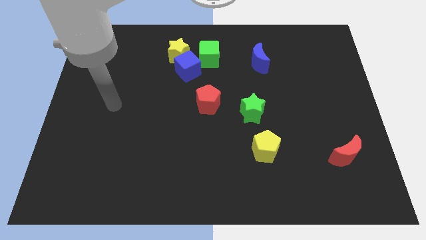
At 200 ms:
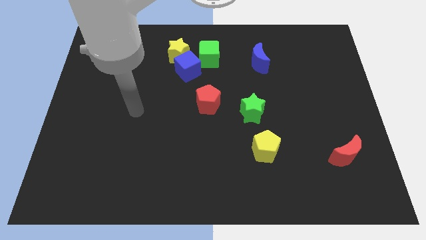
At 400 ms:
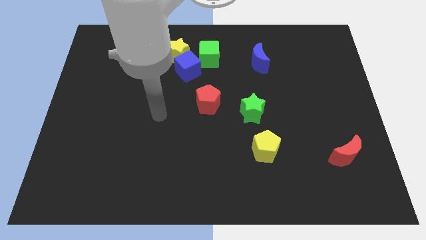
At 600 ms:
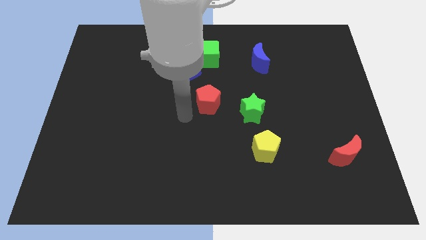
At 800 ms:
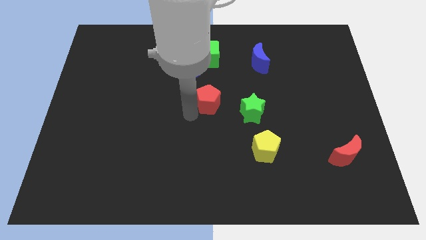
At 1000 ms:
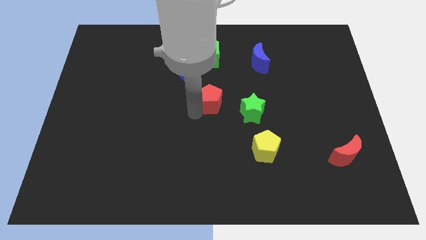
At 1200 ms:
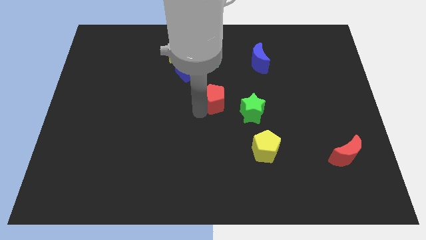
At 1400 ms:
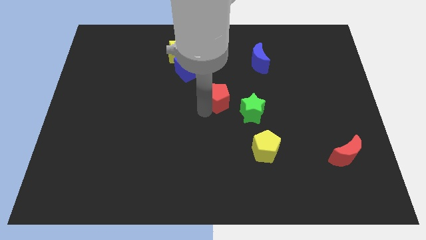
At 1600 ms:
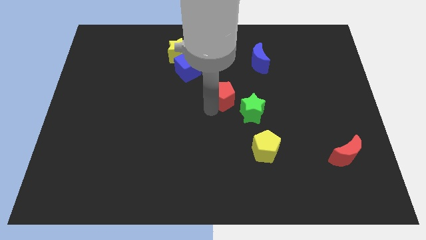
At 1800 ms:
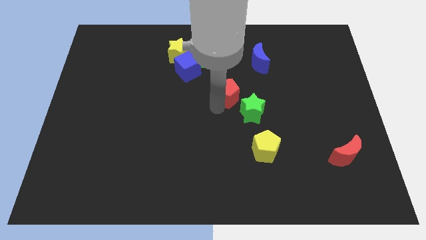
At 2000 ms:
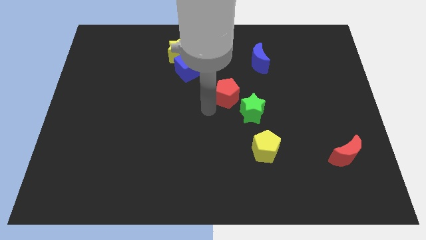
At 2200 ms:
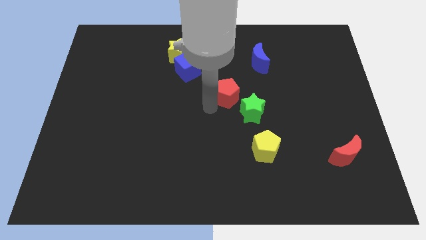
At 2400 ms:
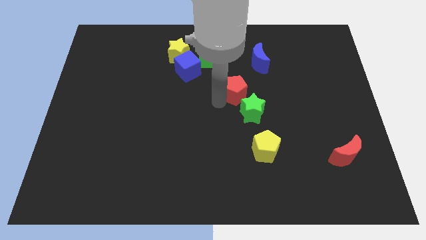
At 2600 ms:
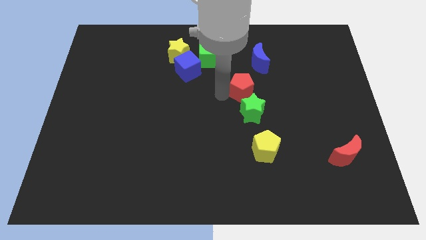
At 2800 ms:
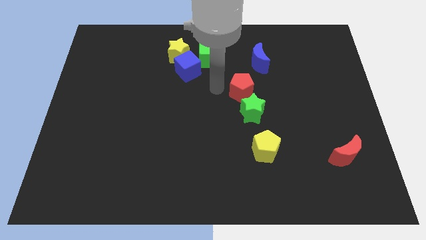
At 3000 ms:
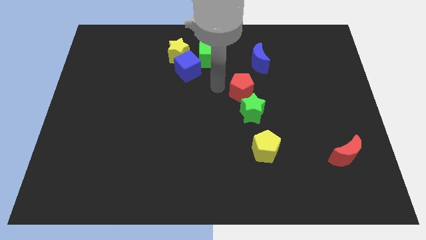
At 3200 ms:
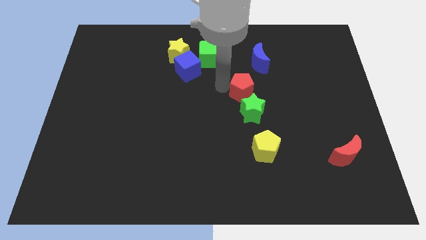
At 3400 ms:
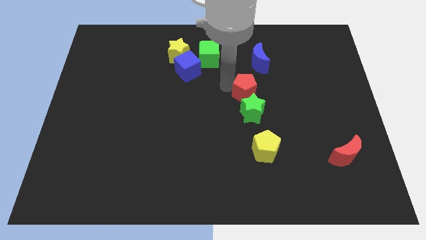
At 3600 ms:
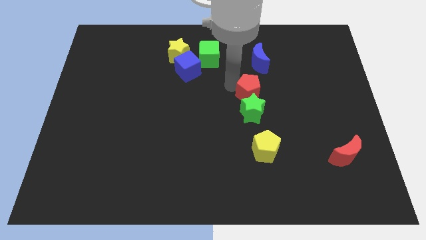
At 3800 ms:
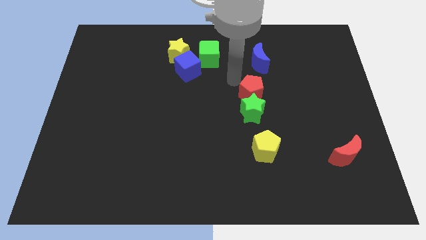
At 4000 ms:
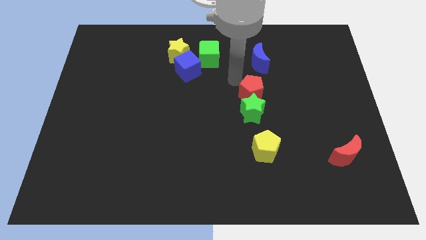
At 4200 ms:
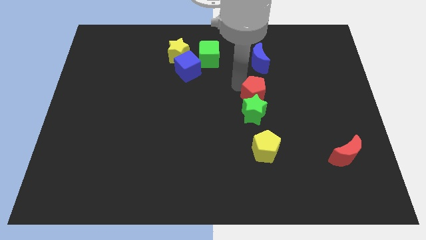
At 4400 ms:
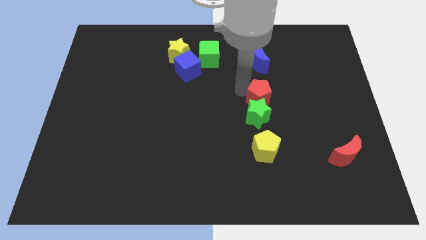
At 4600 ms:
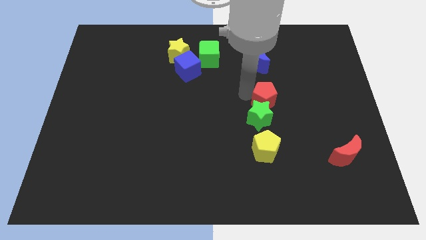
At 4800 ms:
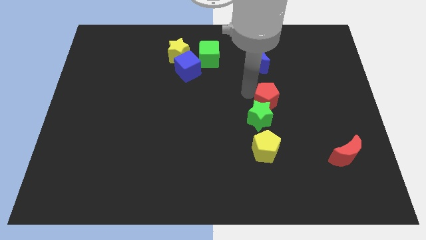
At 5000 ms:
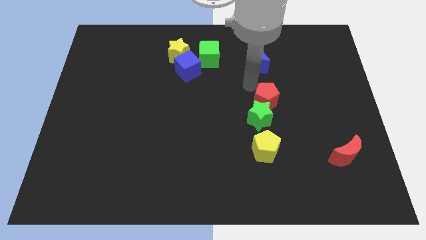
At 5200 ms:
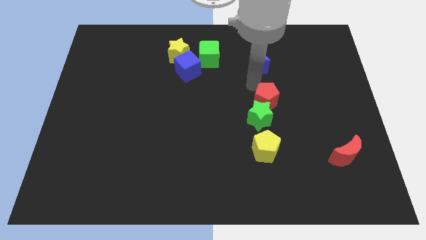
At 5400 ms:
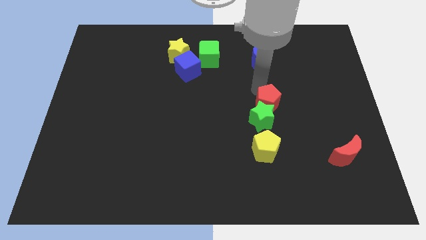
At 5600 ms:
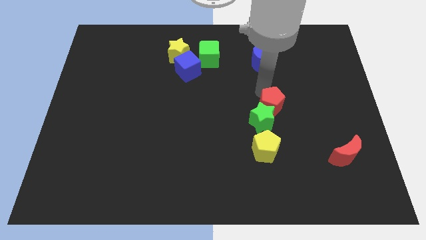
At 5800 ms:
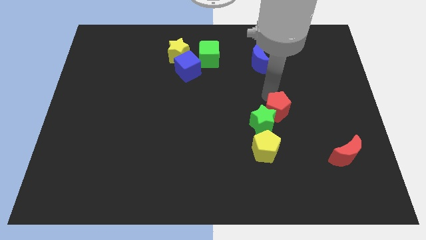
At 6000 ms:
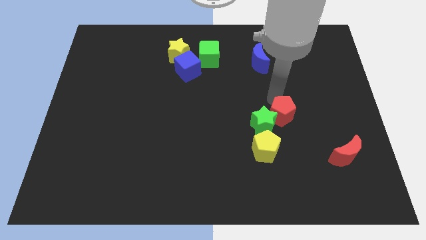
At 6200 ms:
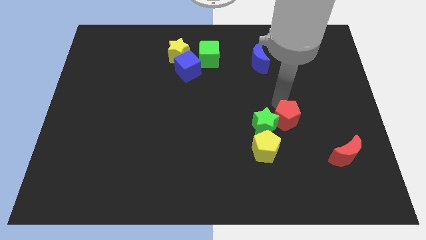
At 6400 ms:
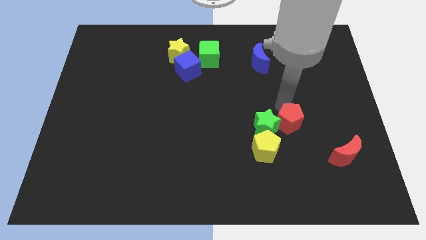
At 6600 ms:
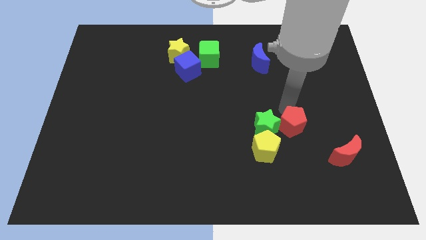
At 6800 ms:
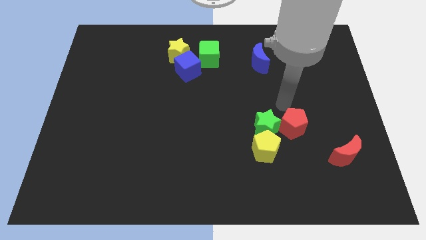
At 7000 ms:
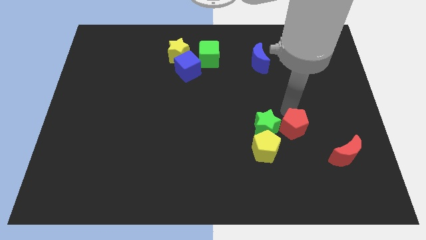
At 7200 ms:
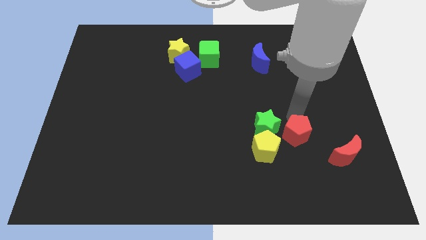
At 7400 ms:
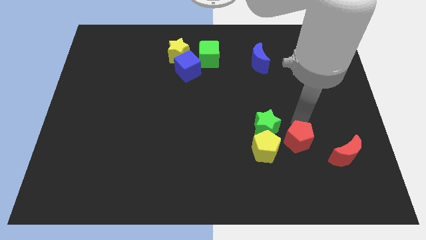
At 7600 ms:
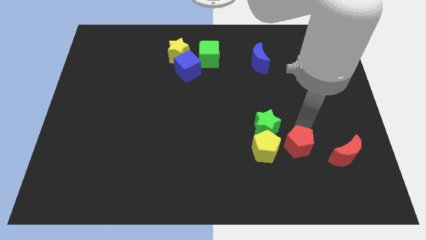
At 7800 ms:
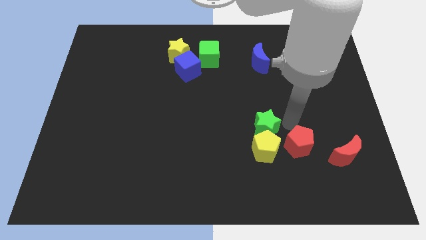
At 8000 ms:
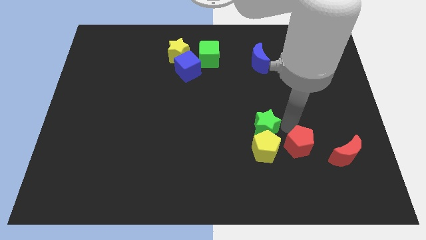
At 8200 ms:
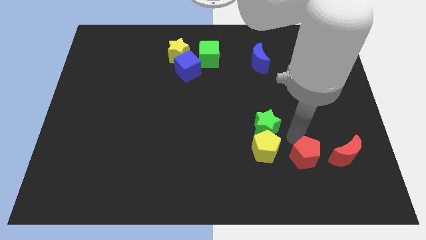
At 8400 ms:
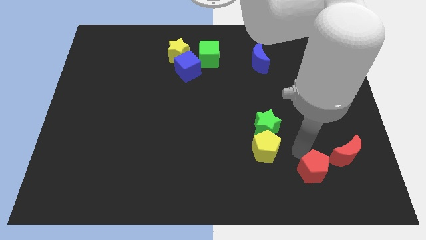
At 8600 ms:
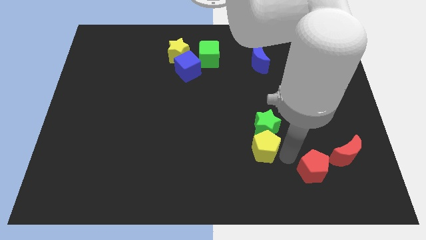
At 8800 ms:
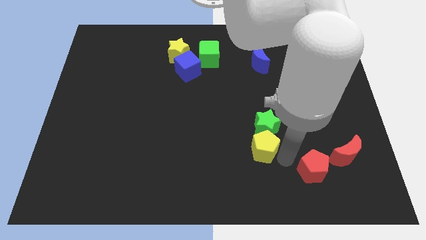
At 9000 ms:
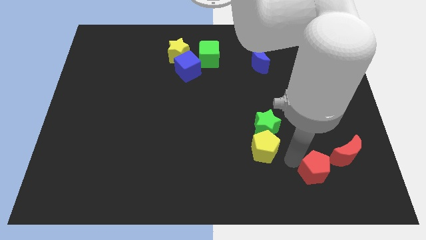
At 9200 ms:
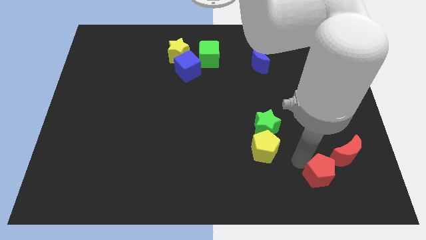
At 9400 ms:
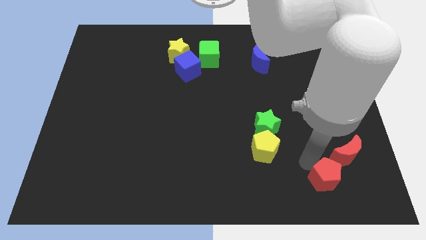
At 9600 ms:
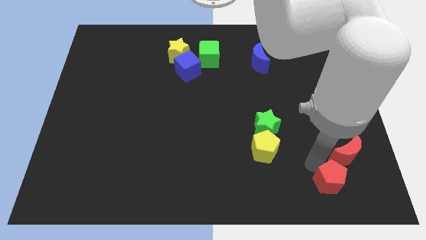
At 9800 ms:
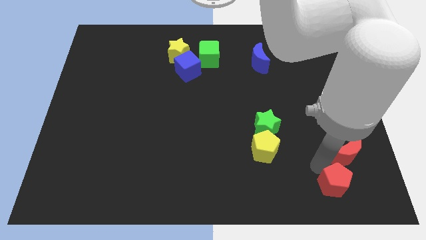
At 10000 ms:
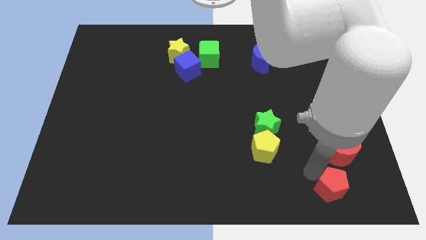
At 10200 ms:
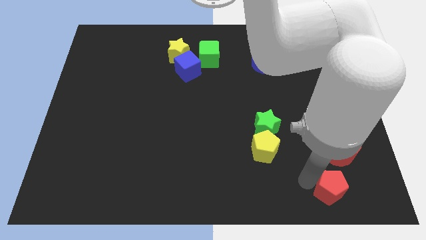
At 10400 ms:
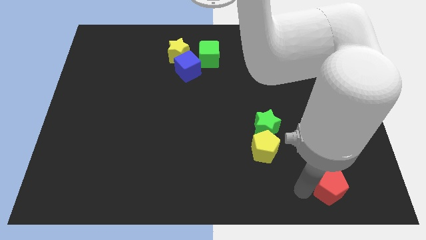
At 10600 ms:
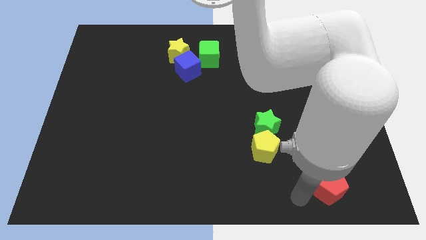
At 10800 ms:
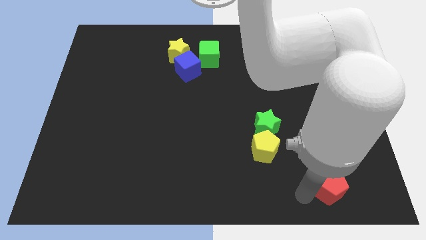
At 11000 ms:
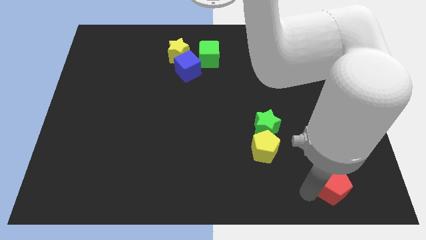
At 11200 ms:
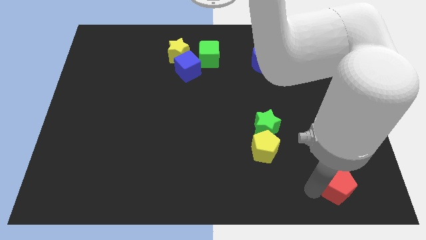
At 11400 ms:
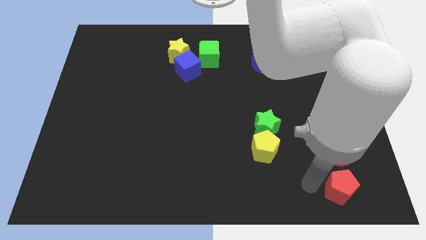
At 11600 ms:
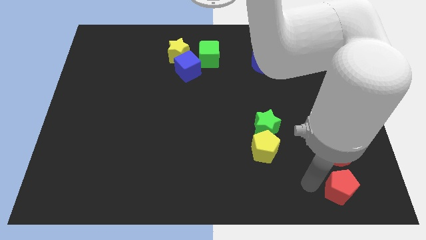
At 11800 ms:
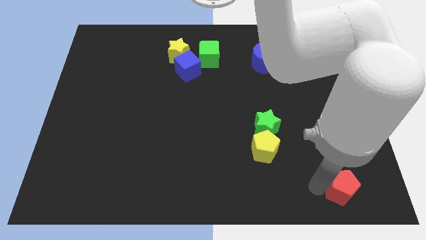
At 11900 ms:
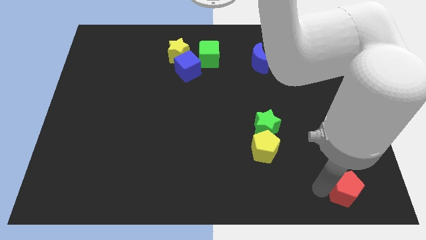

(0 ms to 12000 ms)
move the red pentagon to the bottom right

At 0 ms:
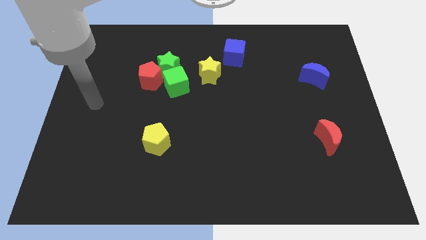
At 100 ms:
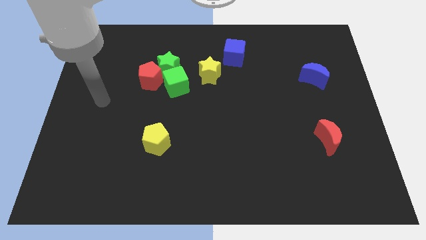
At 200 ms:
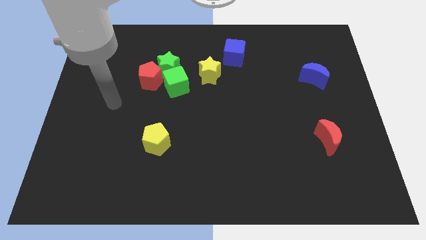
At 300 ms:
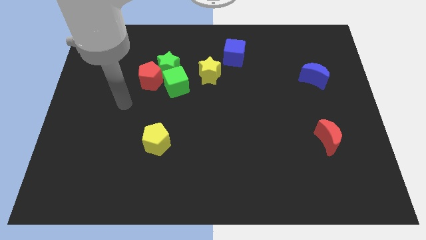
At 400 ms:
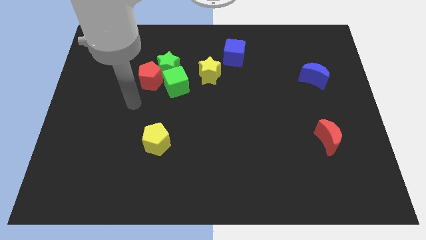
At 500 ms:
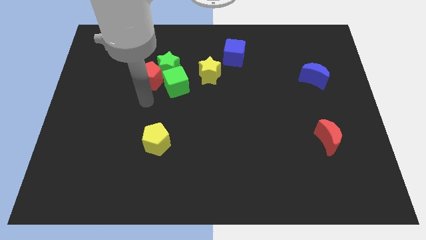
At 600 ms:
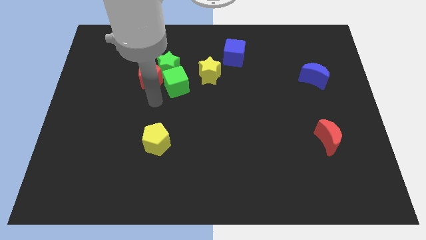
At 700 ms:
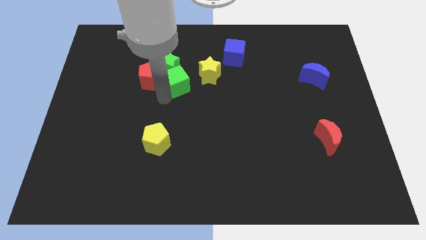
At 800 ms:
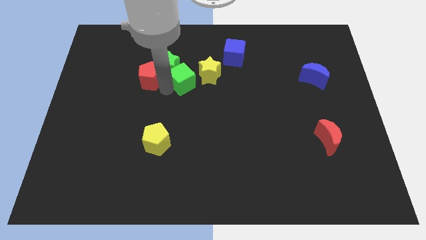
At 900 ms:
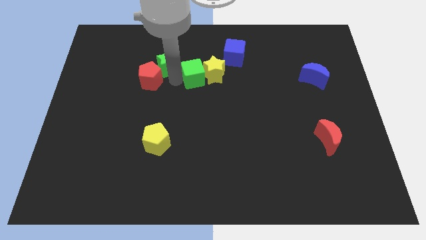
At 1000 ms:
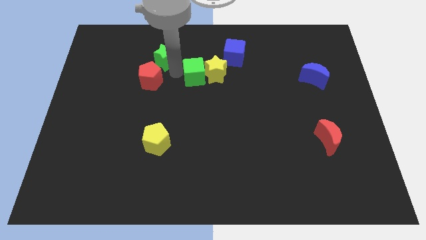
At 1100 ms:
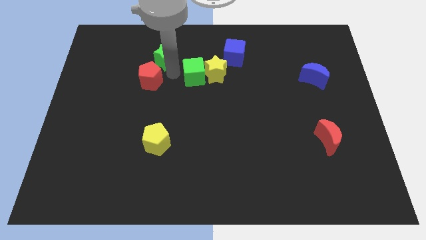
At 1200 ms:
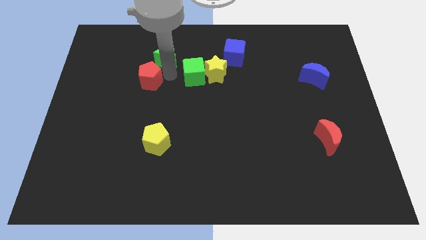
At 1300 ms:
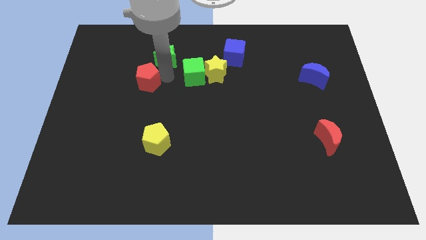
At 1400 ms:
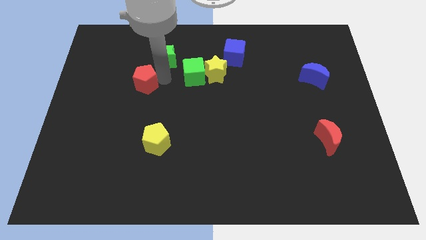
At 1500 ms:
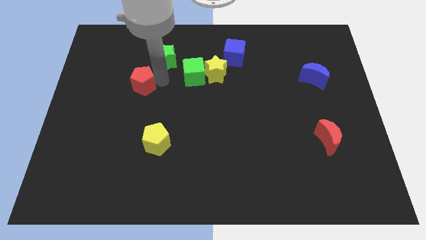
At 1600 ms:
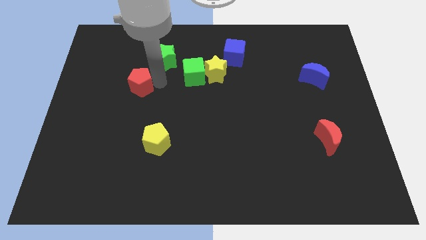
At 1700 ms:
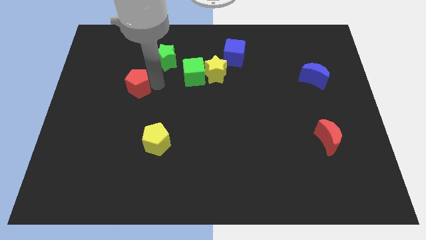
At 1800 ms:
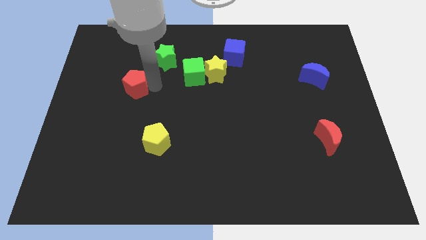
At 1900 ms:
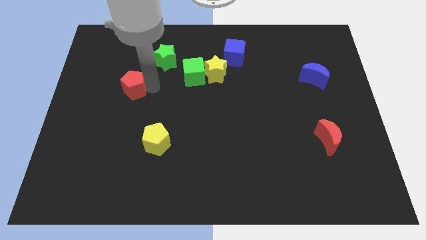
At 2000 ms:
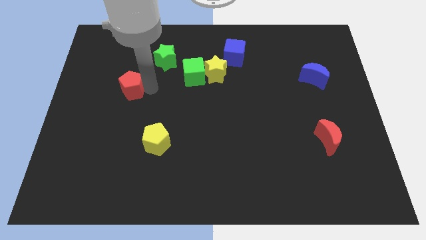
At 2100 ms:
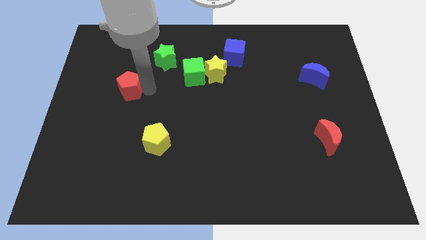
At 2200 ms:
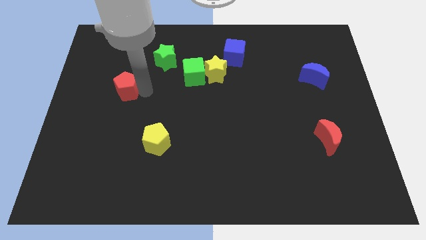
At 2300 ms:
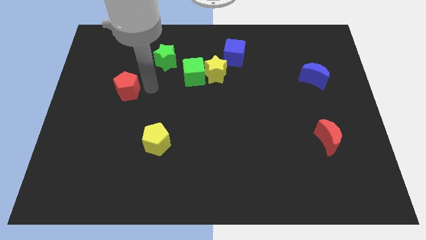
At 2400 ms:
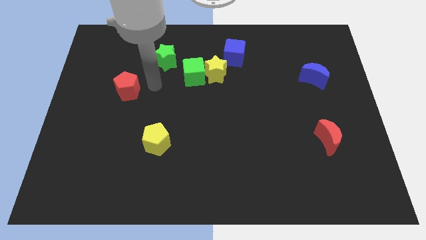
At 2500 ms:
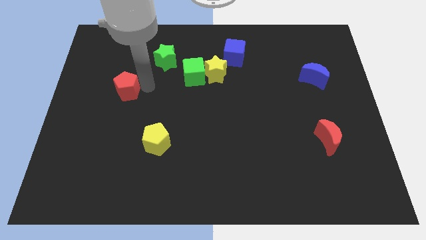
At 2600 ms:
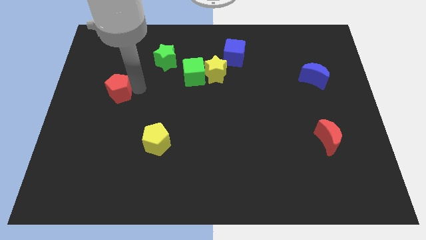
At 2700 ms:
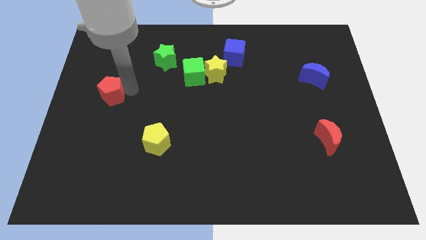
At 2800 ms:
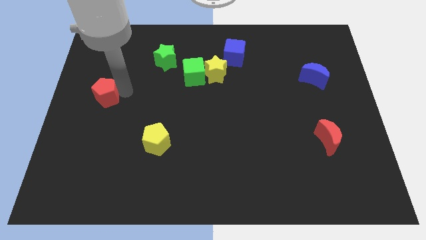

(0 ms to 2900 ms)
slide the red pentagon to the left side
